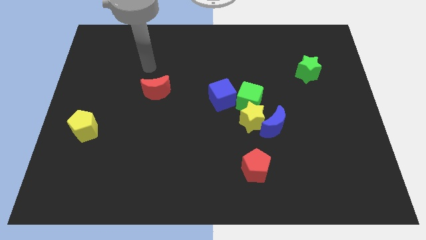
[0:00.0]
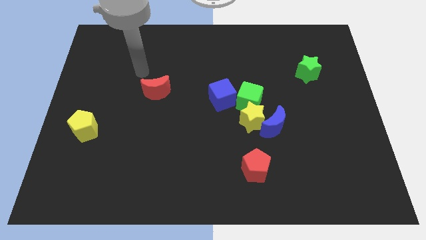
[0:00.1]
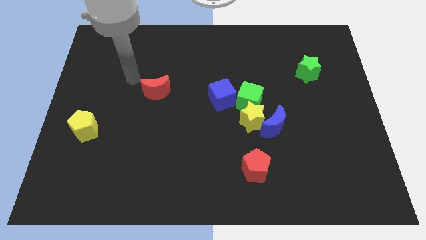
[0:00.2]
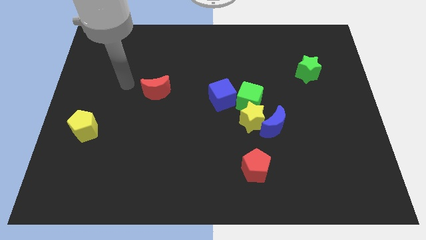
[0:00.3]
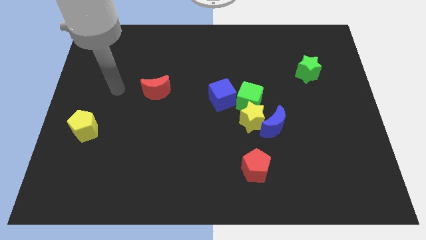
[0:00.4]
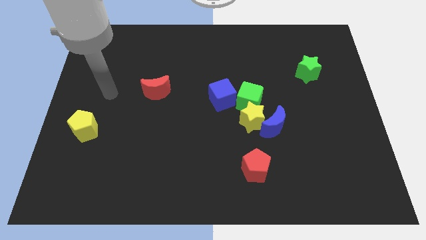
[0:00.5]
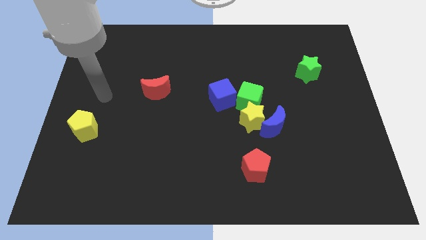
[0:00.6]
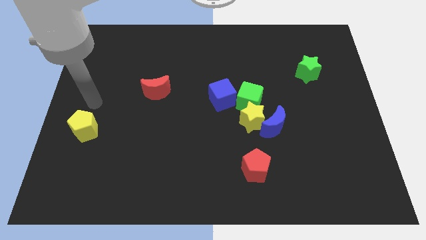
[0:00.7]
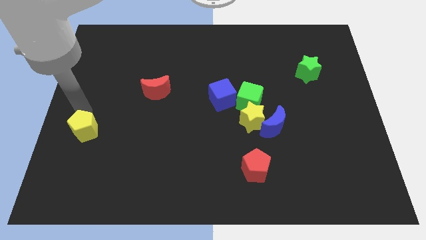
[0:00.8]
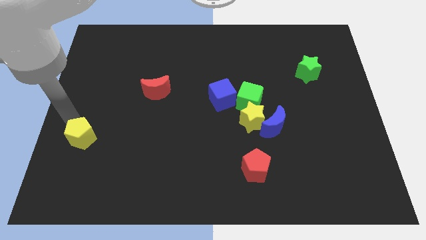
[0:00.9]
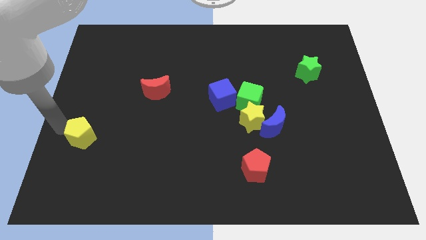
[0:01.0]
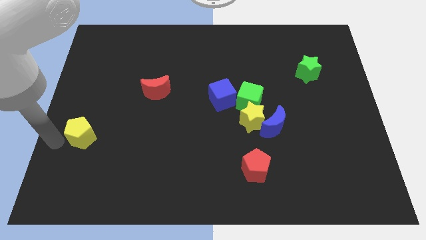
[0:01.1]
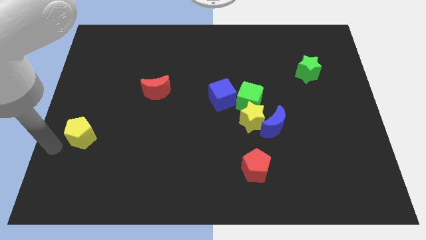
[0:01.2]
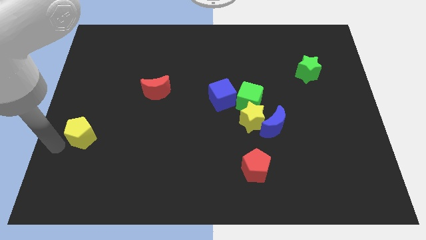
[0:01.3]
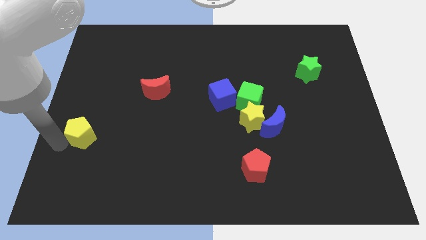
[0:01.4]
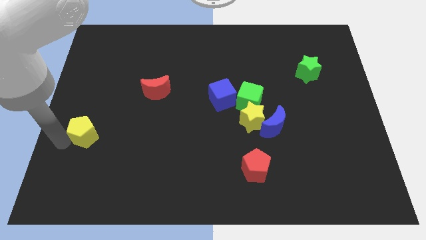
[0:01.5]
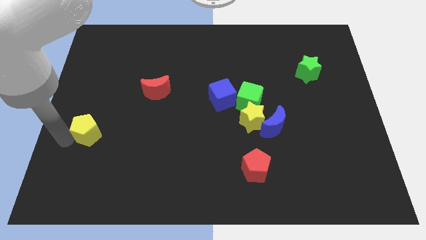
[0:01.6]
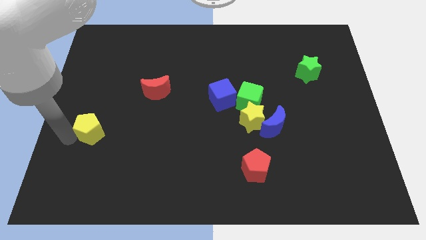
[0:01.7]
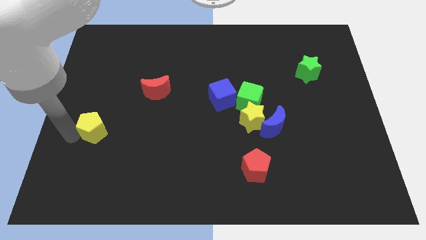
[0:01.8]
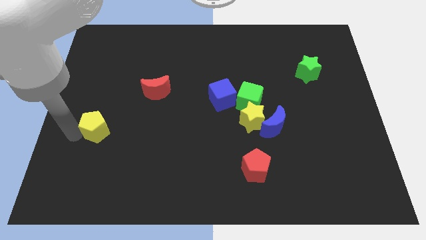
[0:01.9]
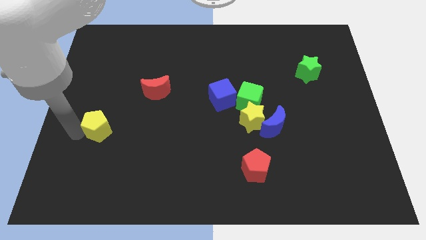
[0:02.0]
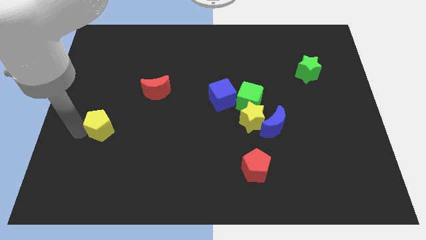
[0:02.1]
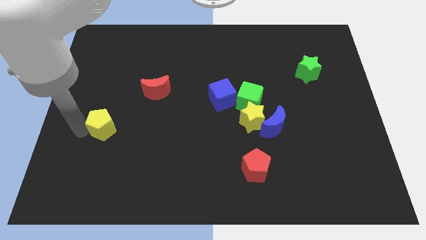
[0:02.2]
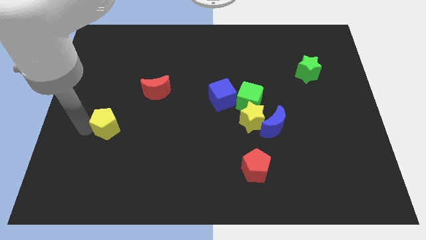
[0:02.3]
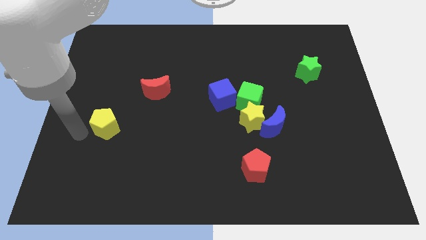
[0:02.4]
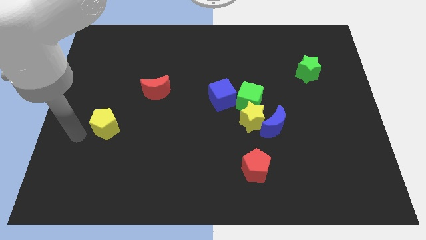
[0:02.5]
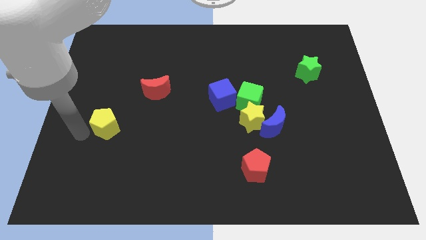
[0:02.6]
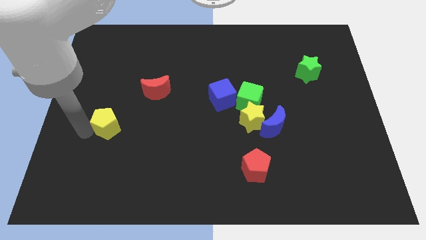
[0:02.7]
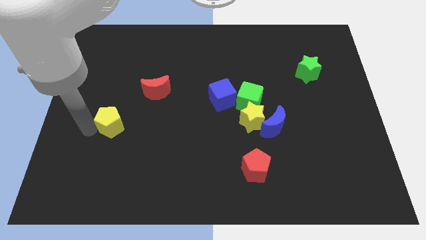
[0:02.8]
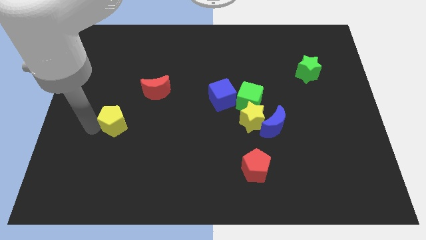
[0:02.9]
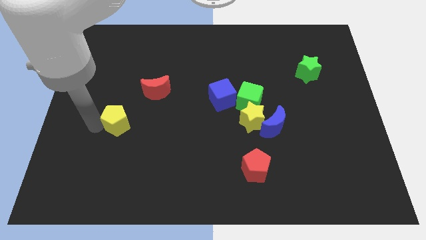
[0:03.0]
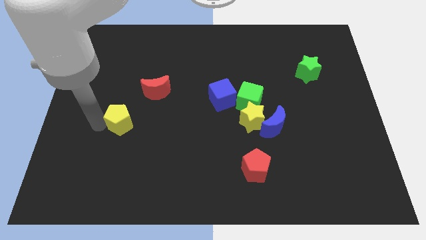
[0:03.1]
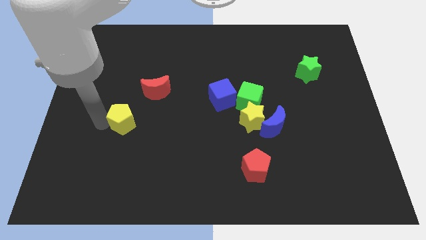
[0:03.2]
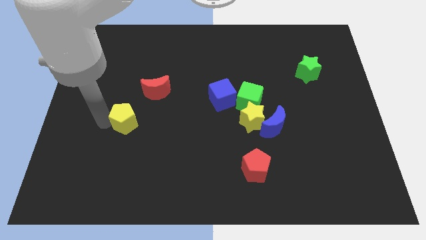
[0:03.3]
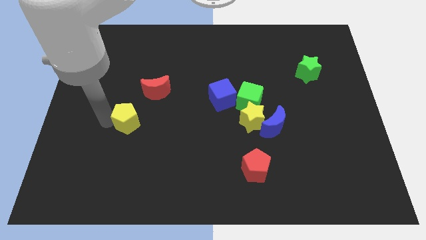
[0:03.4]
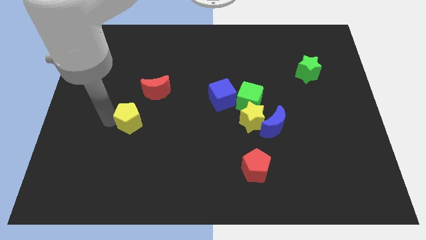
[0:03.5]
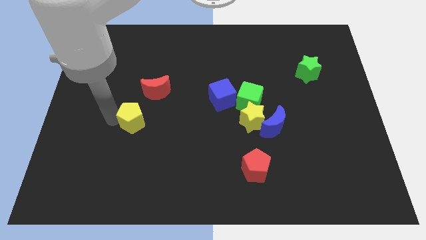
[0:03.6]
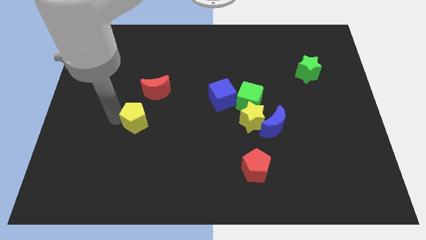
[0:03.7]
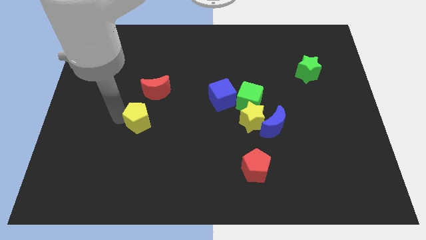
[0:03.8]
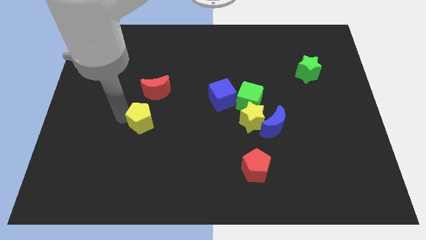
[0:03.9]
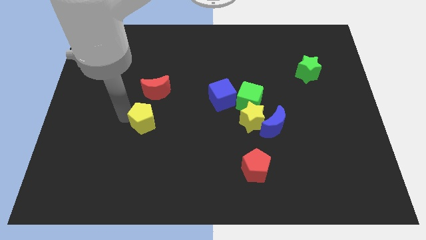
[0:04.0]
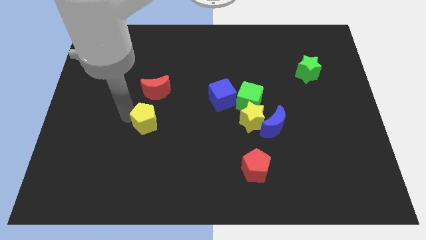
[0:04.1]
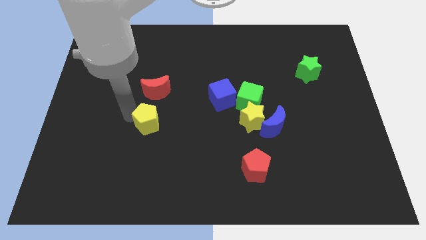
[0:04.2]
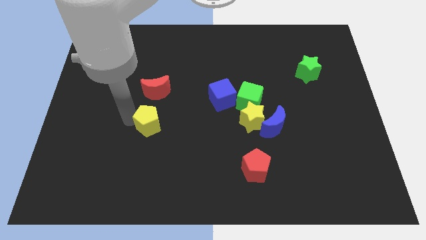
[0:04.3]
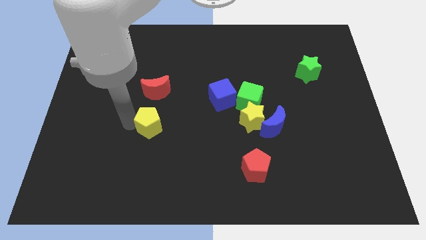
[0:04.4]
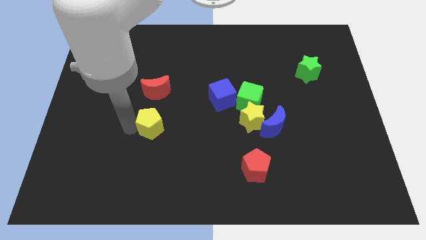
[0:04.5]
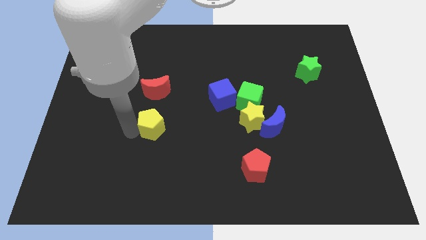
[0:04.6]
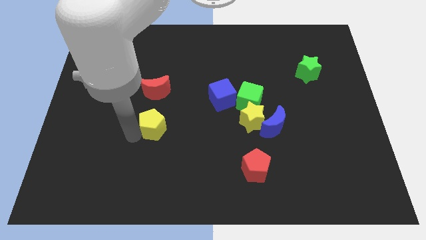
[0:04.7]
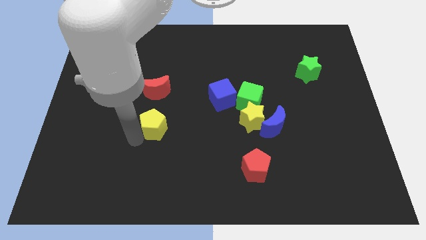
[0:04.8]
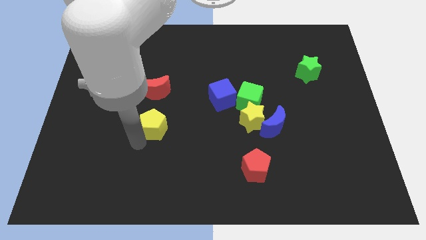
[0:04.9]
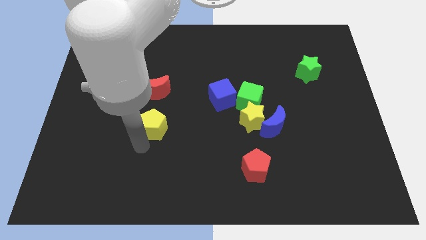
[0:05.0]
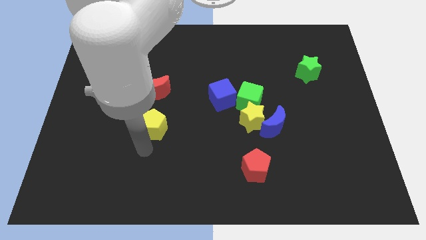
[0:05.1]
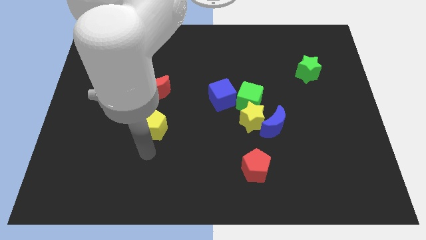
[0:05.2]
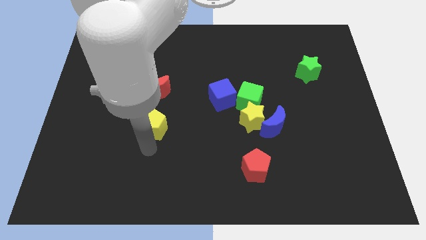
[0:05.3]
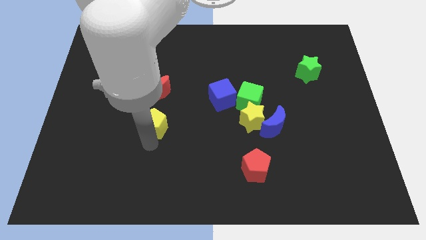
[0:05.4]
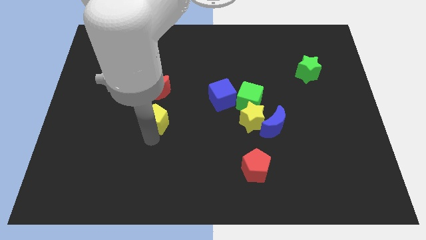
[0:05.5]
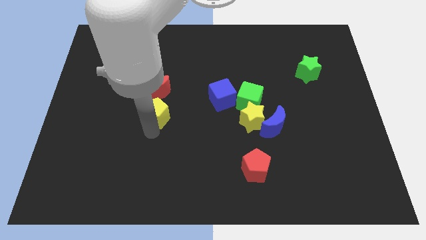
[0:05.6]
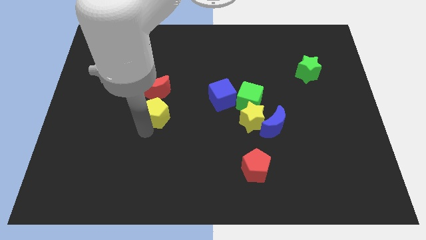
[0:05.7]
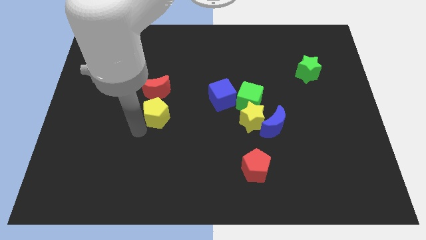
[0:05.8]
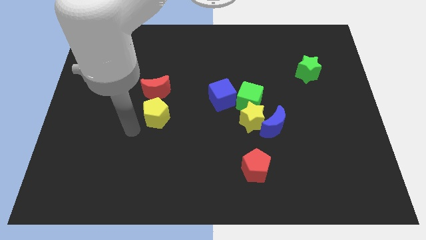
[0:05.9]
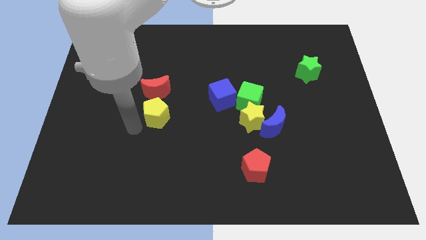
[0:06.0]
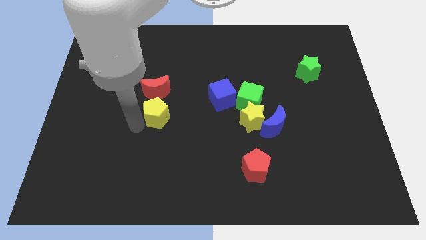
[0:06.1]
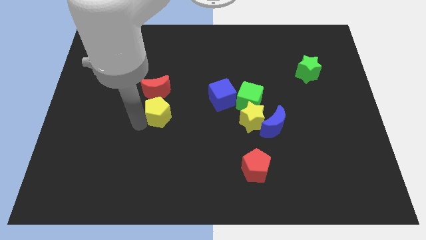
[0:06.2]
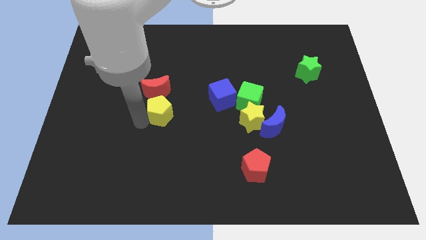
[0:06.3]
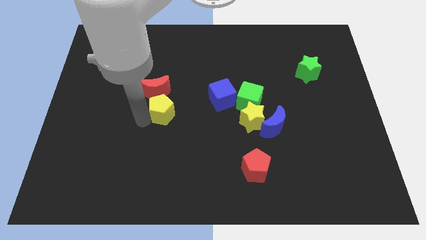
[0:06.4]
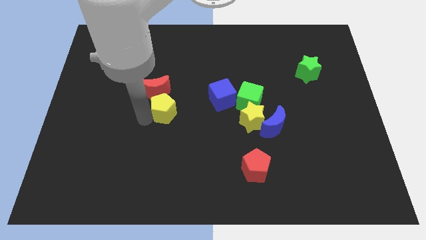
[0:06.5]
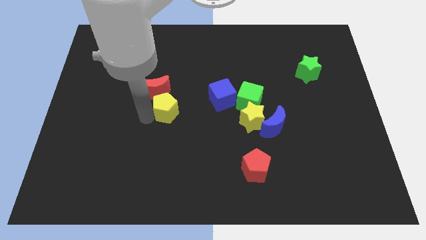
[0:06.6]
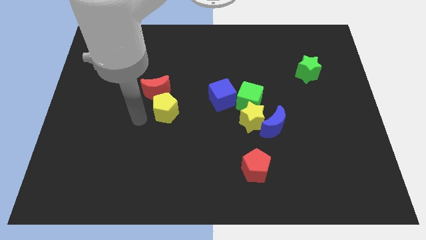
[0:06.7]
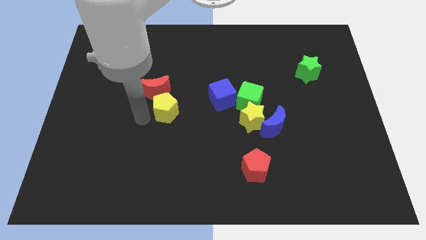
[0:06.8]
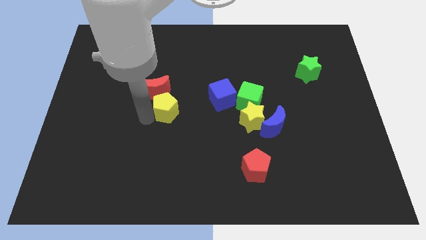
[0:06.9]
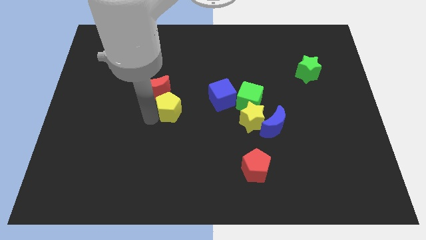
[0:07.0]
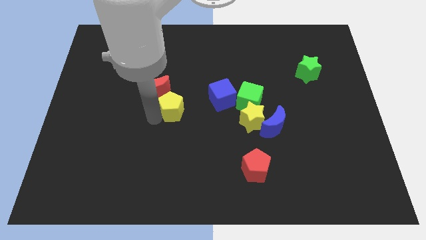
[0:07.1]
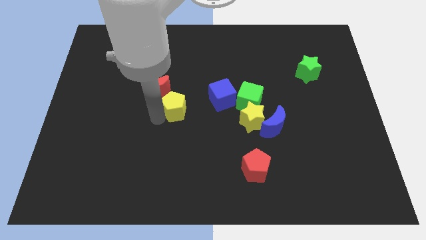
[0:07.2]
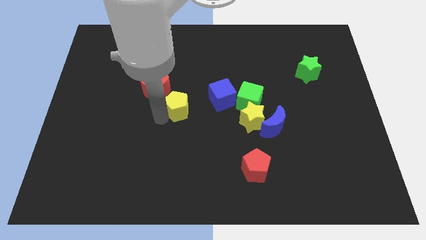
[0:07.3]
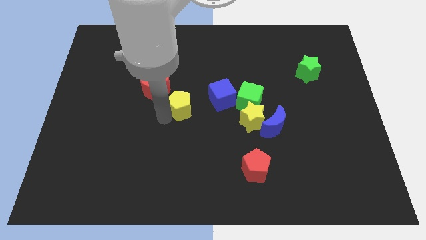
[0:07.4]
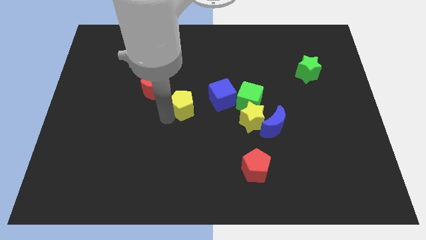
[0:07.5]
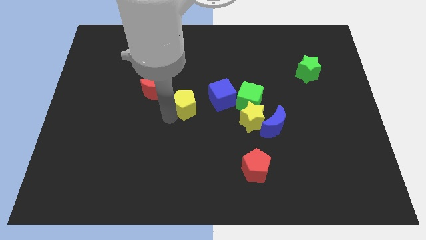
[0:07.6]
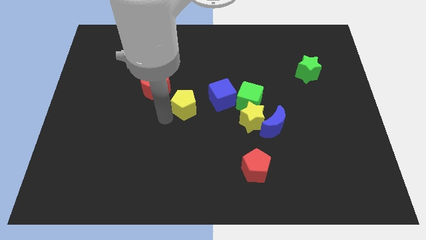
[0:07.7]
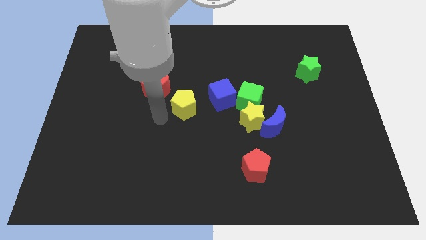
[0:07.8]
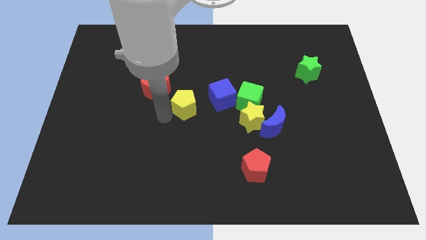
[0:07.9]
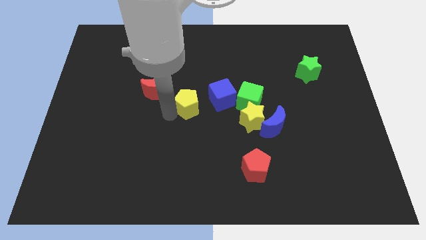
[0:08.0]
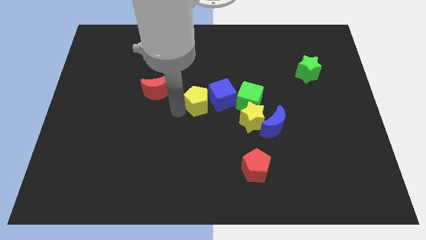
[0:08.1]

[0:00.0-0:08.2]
push the yellow pentagon close to the blue cube
